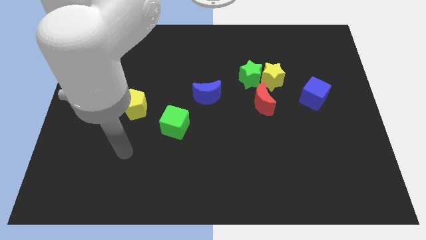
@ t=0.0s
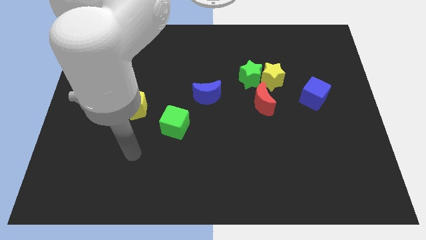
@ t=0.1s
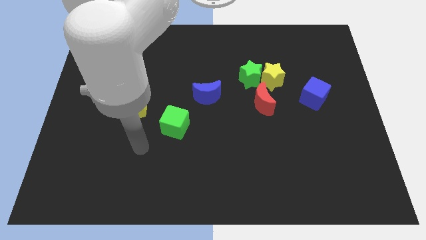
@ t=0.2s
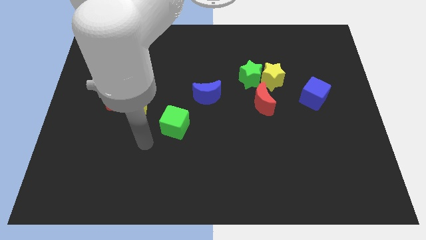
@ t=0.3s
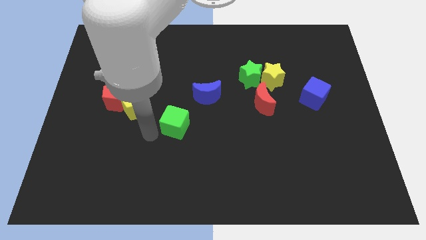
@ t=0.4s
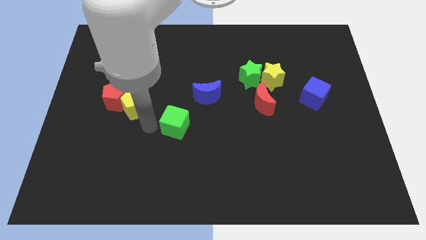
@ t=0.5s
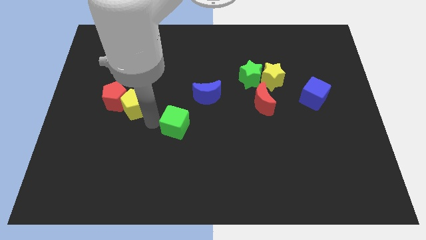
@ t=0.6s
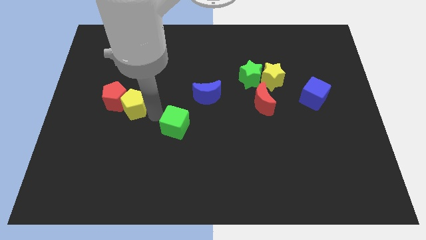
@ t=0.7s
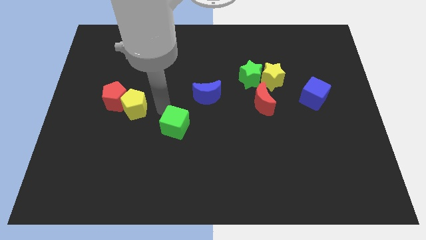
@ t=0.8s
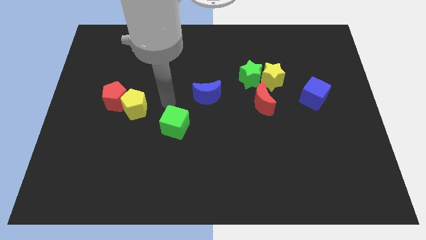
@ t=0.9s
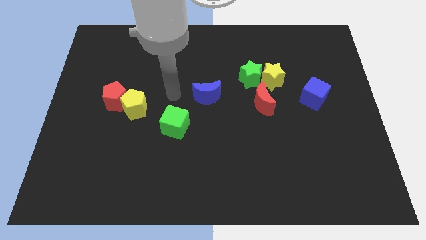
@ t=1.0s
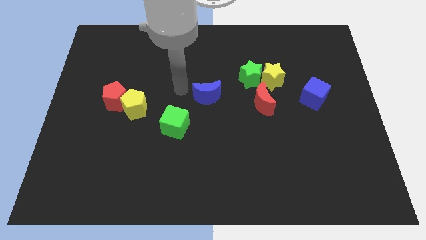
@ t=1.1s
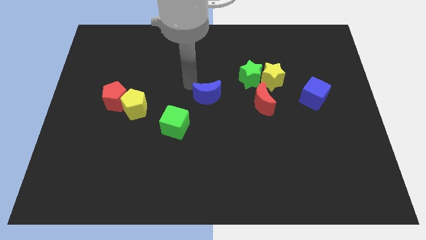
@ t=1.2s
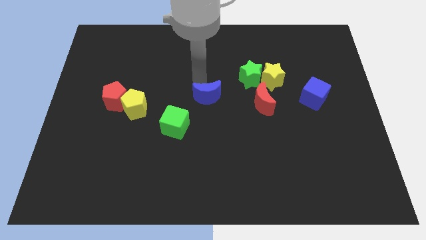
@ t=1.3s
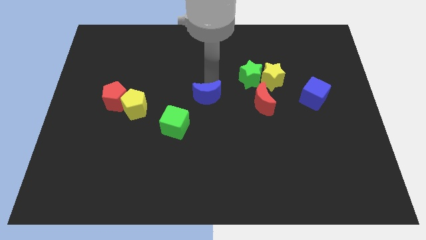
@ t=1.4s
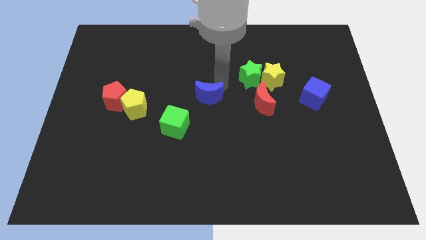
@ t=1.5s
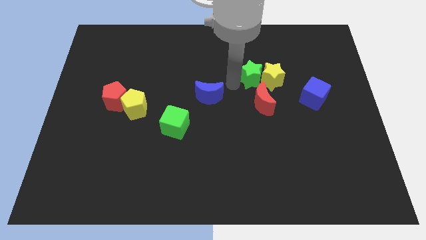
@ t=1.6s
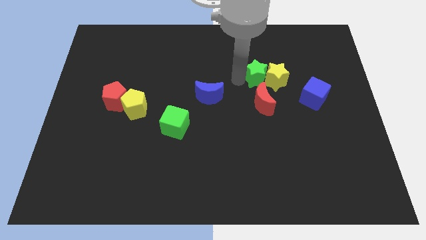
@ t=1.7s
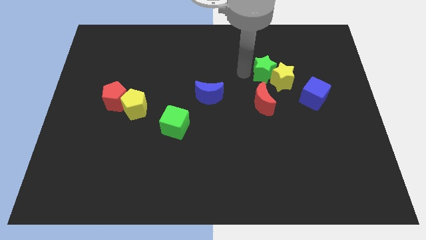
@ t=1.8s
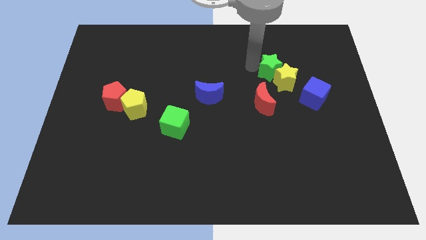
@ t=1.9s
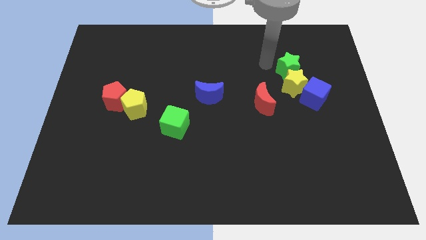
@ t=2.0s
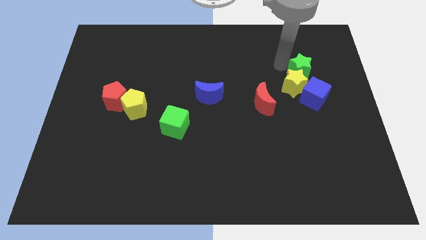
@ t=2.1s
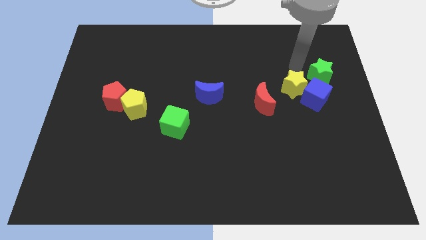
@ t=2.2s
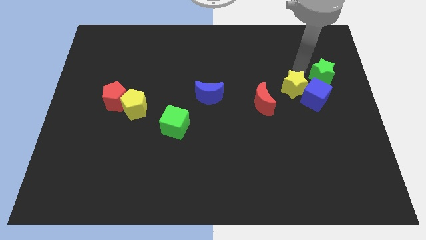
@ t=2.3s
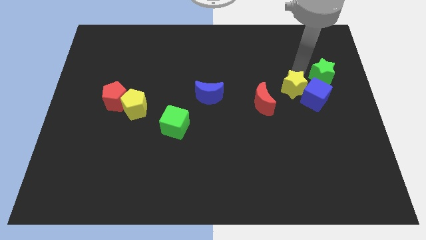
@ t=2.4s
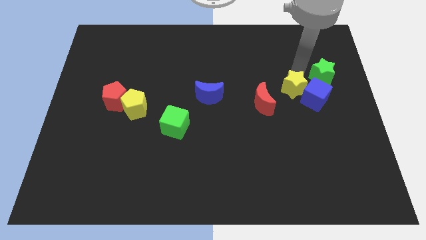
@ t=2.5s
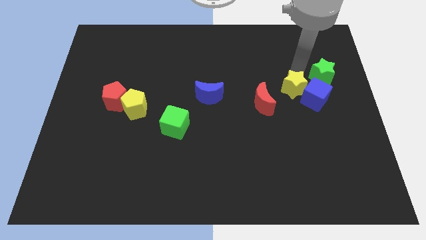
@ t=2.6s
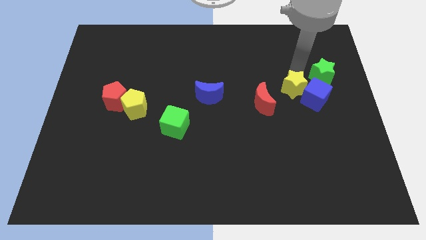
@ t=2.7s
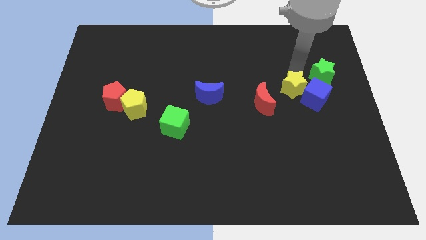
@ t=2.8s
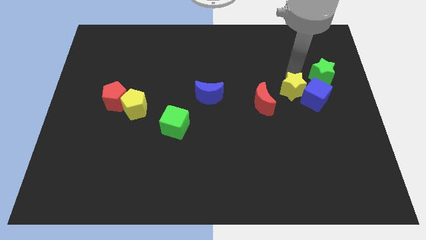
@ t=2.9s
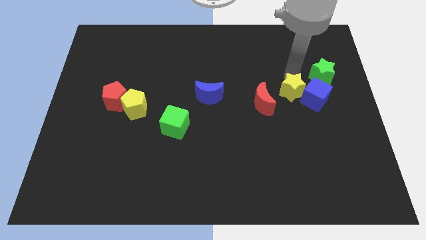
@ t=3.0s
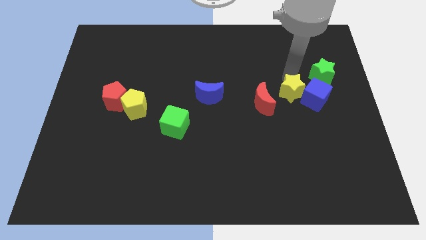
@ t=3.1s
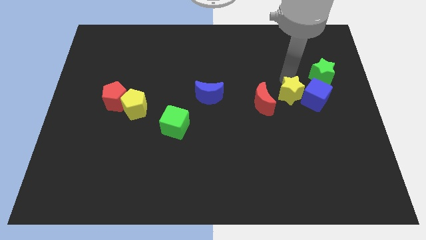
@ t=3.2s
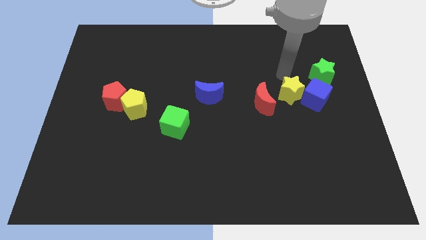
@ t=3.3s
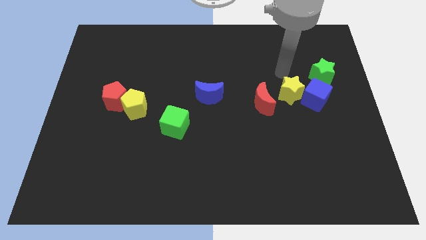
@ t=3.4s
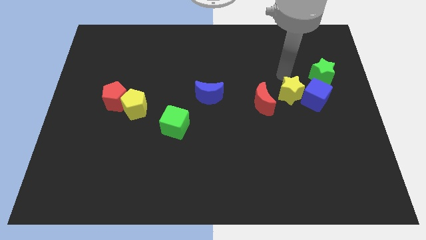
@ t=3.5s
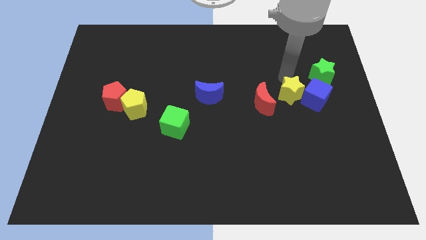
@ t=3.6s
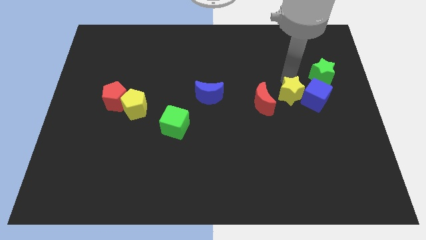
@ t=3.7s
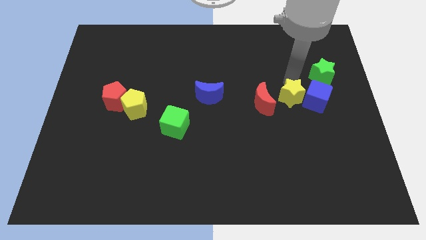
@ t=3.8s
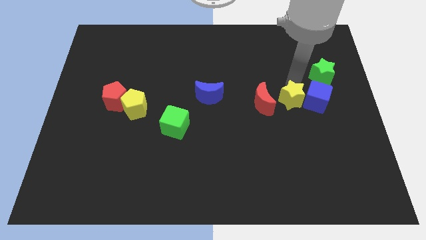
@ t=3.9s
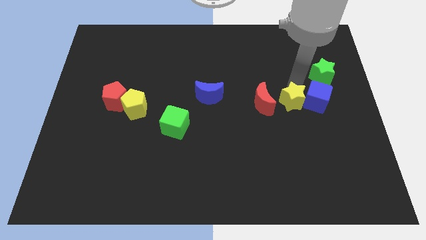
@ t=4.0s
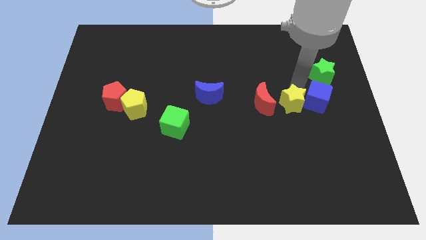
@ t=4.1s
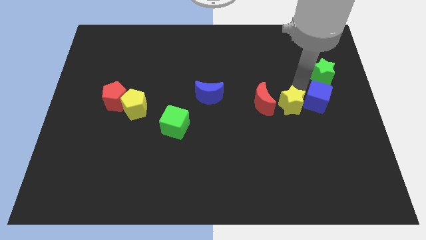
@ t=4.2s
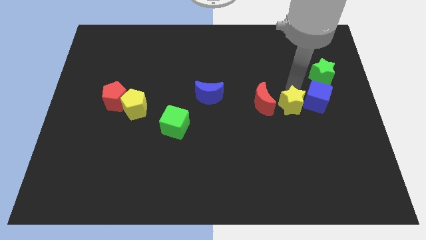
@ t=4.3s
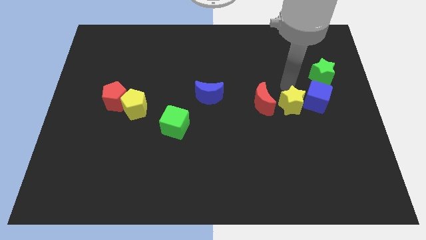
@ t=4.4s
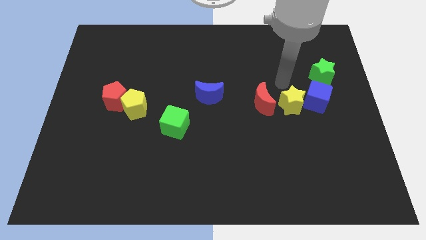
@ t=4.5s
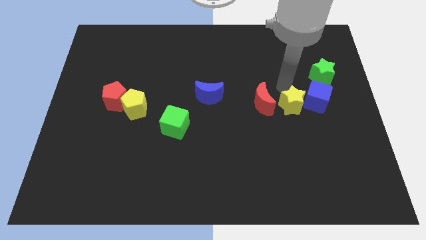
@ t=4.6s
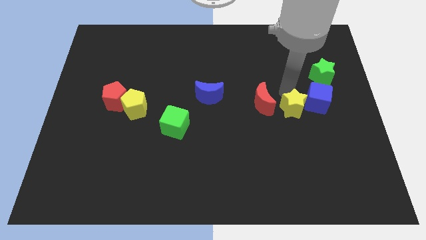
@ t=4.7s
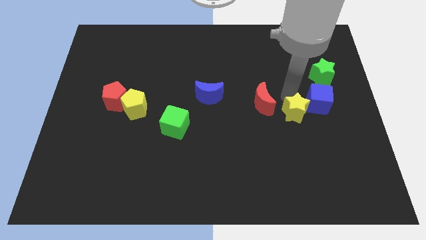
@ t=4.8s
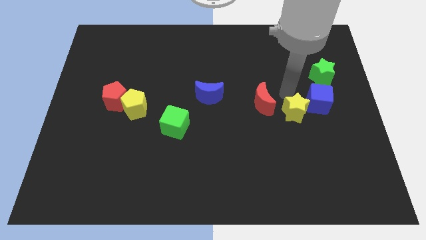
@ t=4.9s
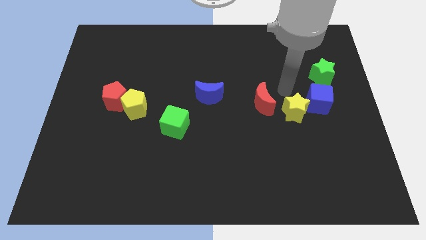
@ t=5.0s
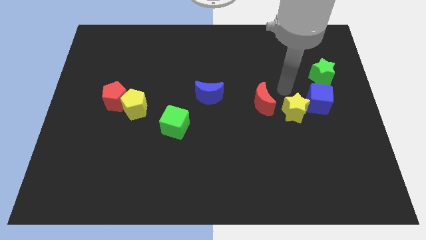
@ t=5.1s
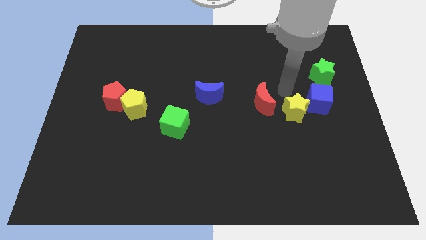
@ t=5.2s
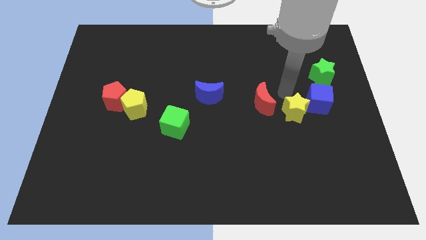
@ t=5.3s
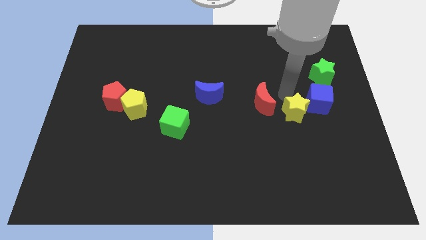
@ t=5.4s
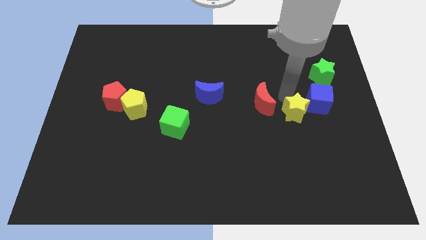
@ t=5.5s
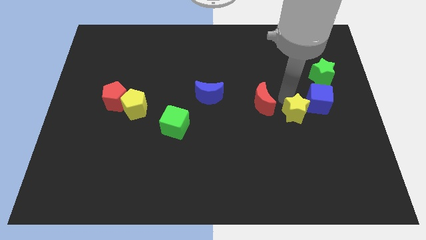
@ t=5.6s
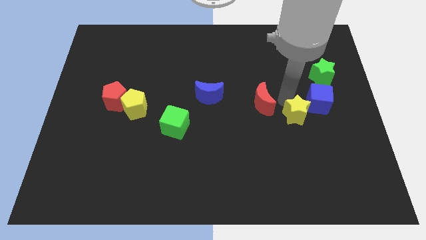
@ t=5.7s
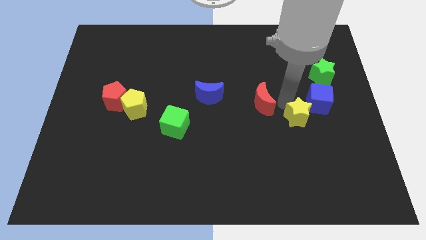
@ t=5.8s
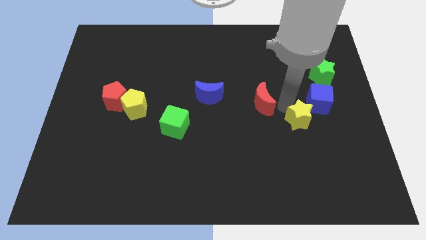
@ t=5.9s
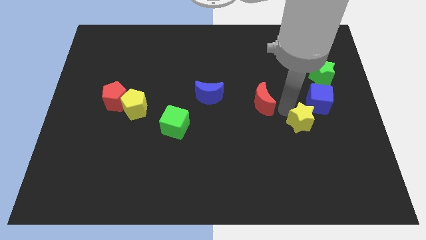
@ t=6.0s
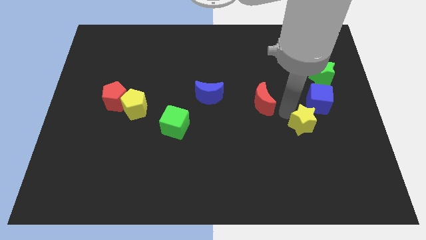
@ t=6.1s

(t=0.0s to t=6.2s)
put the yellow star to the bottom of the blue cube

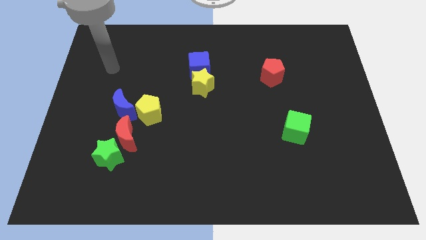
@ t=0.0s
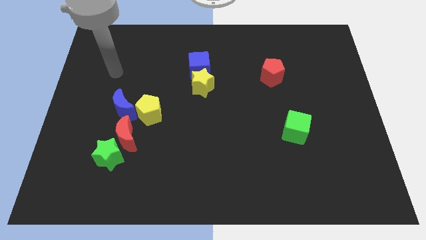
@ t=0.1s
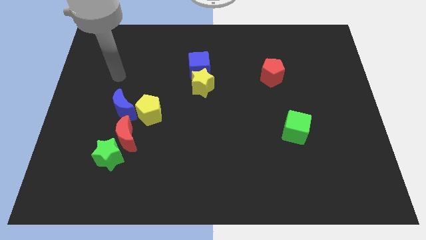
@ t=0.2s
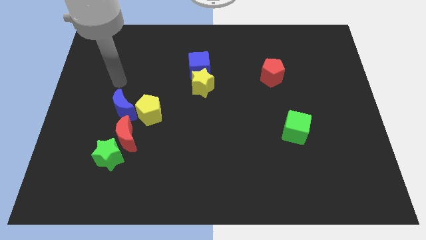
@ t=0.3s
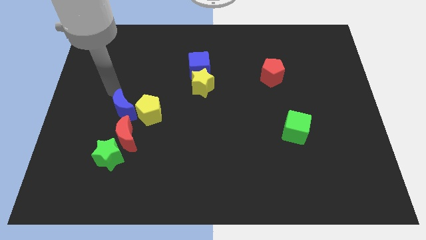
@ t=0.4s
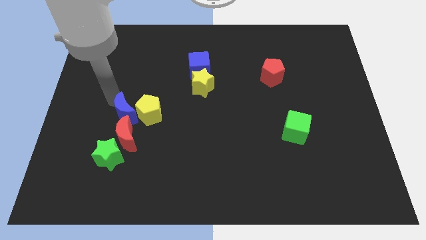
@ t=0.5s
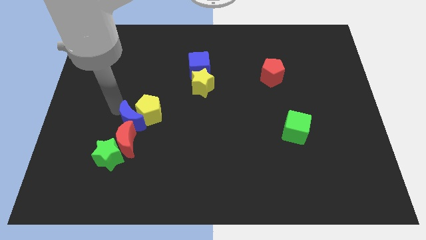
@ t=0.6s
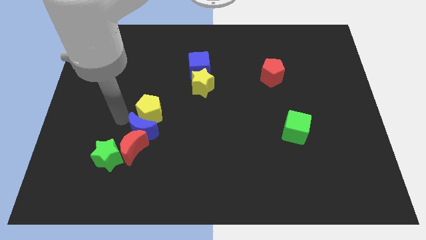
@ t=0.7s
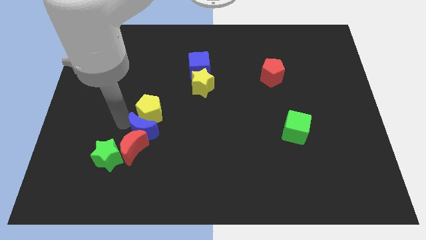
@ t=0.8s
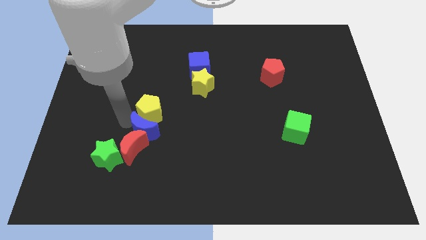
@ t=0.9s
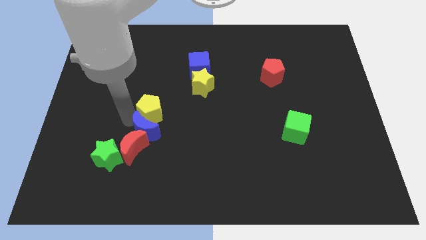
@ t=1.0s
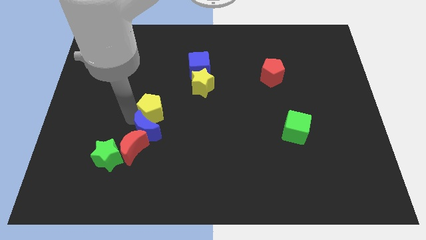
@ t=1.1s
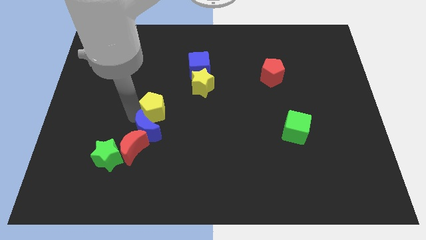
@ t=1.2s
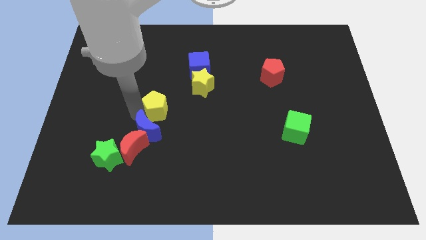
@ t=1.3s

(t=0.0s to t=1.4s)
slide the yellow pentagon to the bottom left side of the yellow star

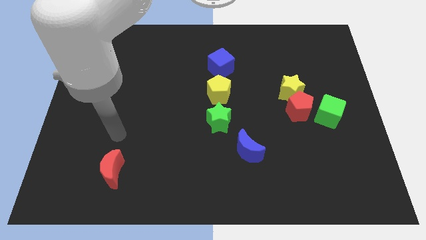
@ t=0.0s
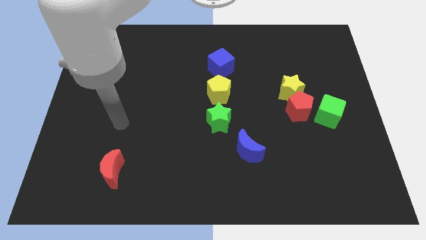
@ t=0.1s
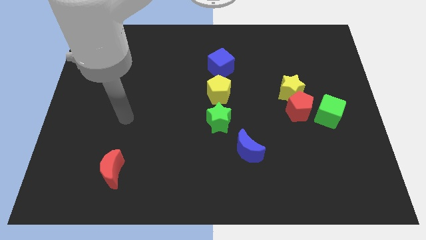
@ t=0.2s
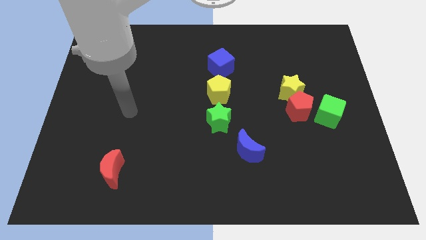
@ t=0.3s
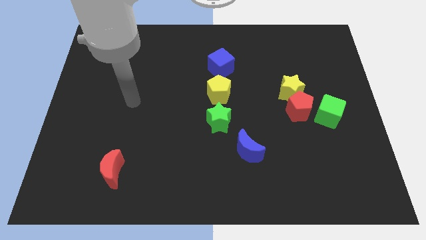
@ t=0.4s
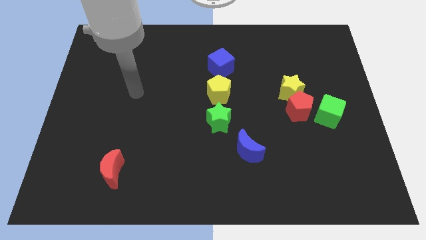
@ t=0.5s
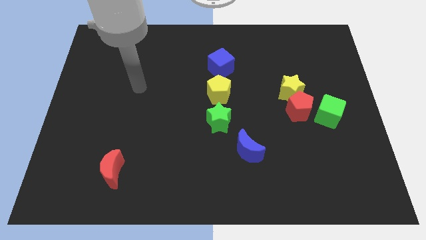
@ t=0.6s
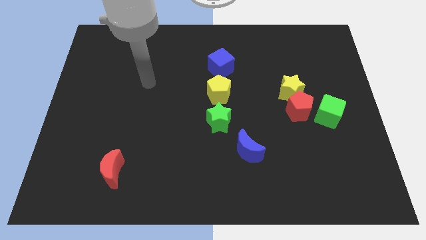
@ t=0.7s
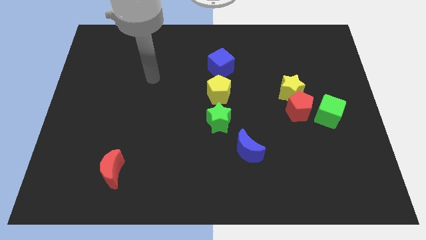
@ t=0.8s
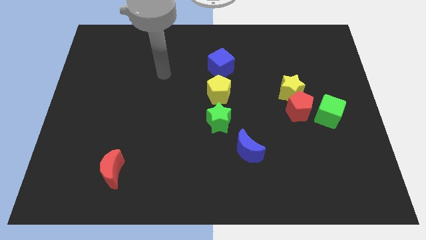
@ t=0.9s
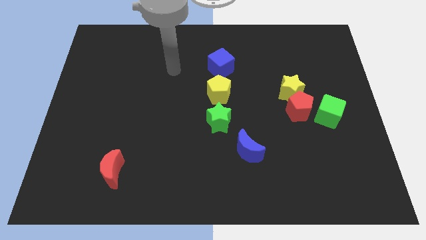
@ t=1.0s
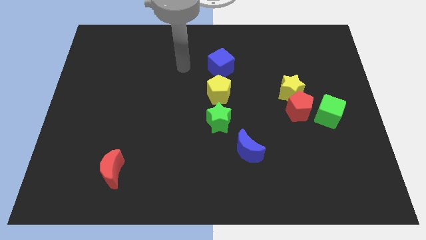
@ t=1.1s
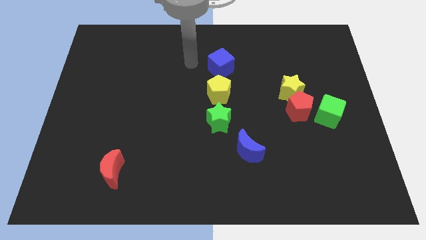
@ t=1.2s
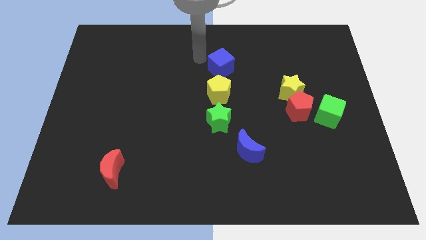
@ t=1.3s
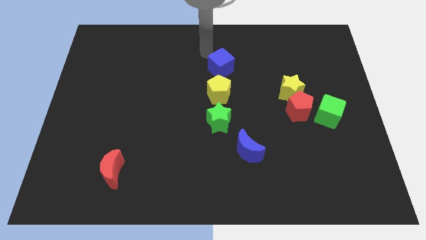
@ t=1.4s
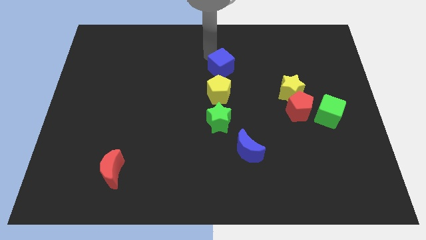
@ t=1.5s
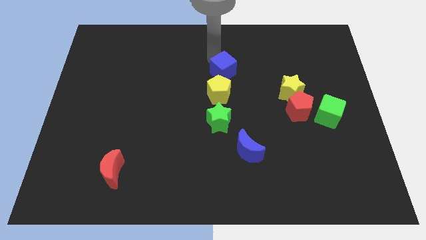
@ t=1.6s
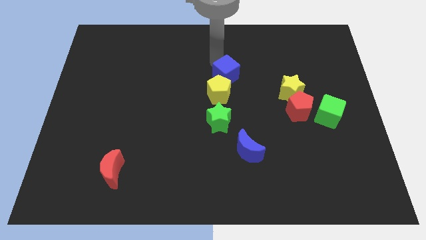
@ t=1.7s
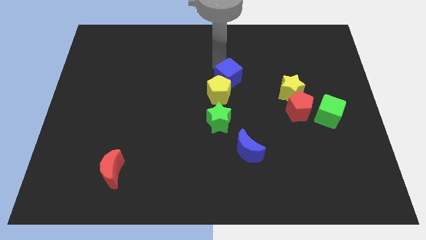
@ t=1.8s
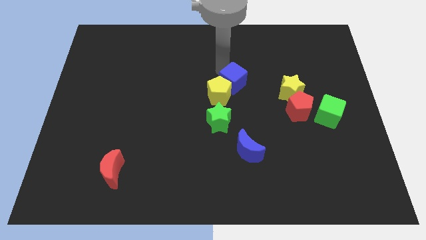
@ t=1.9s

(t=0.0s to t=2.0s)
put the blue cube to the left of the yellow star
